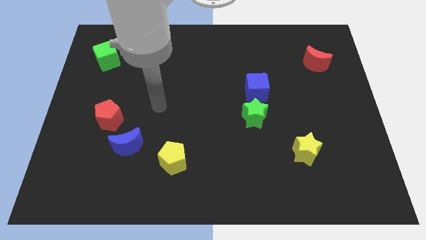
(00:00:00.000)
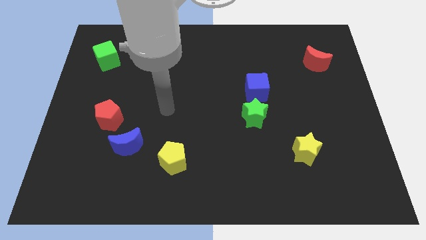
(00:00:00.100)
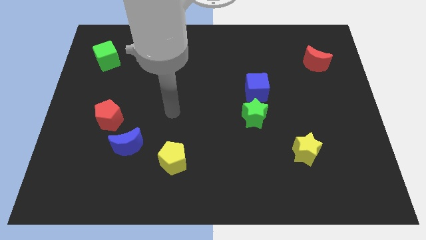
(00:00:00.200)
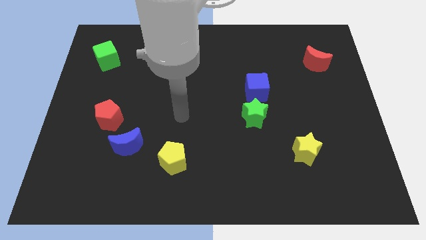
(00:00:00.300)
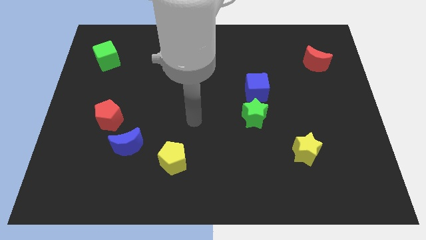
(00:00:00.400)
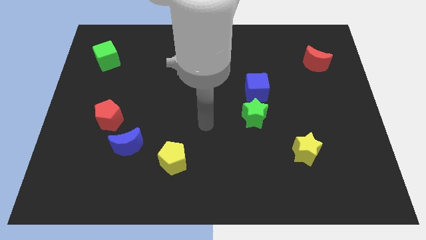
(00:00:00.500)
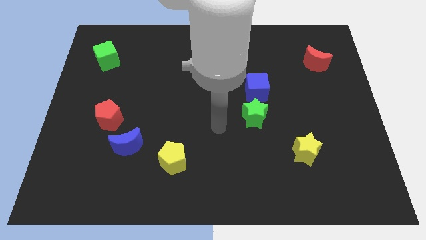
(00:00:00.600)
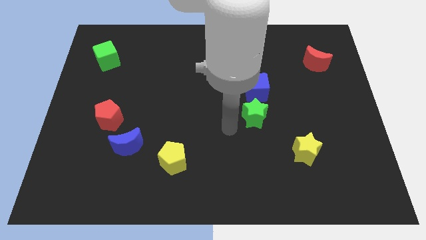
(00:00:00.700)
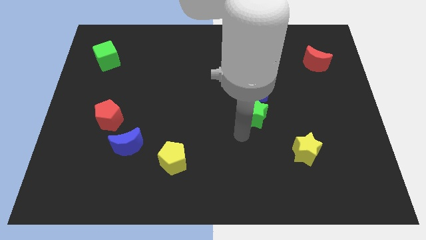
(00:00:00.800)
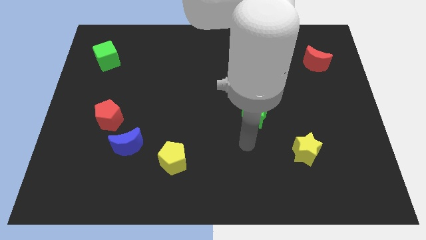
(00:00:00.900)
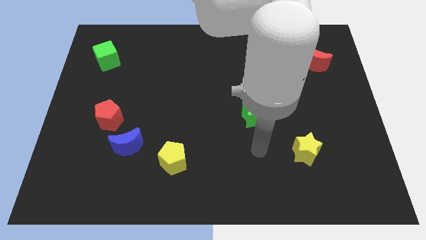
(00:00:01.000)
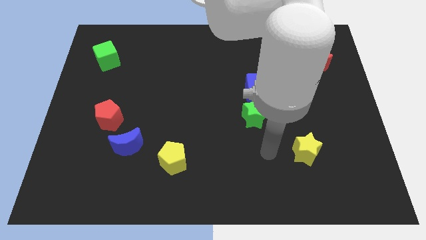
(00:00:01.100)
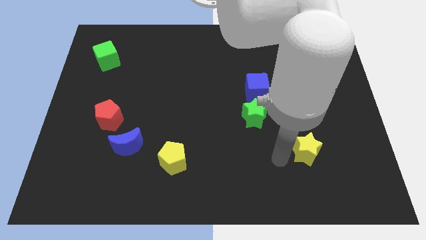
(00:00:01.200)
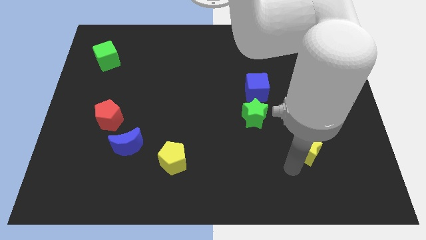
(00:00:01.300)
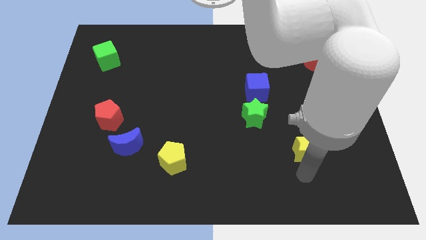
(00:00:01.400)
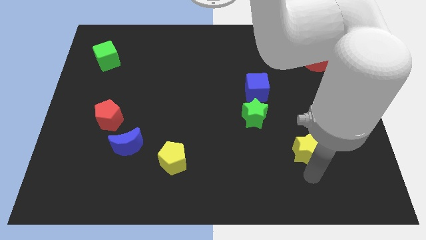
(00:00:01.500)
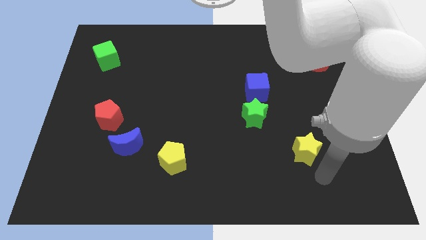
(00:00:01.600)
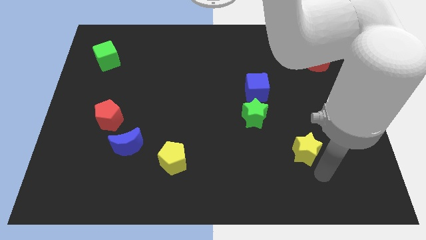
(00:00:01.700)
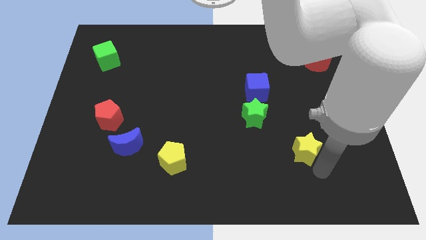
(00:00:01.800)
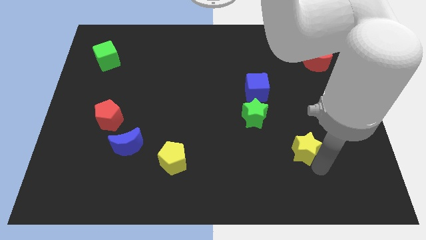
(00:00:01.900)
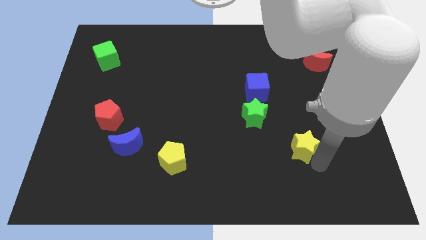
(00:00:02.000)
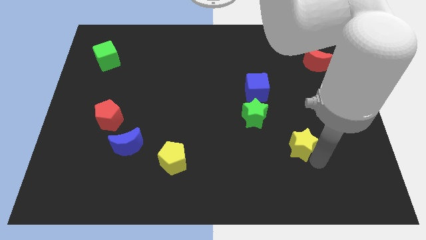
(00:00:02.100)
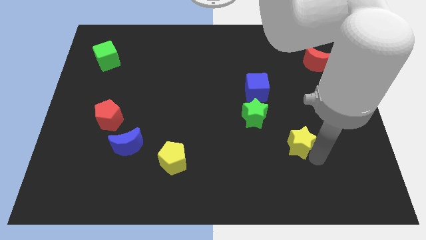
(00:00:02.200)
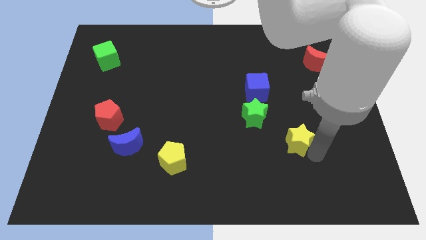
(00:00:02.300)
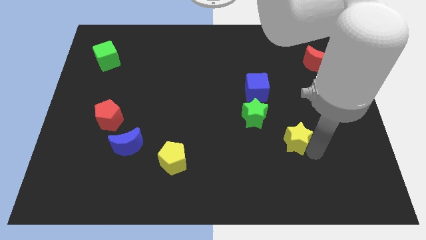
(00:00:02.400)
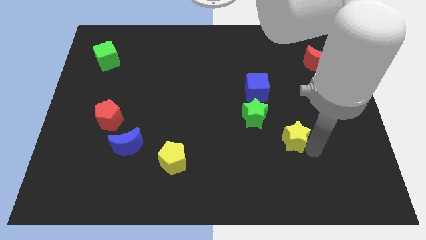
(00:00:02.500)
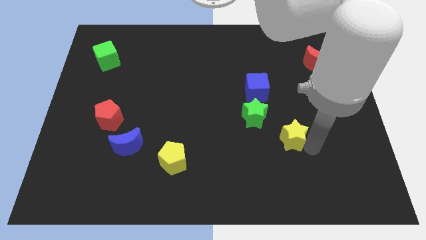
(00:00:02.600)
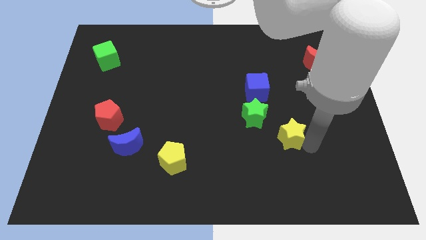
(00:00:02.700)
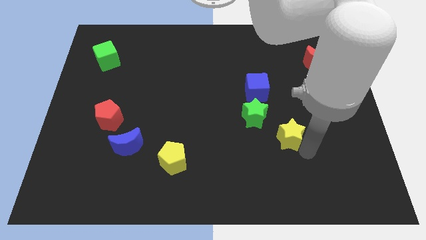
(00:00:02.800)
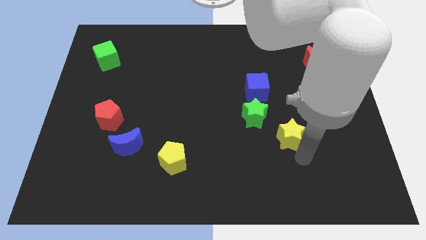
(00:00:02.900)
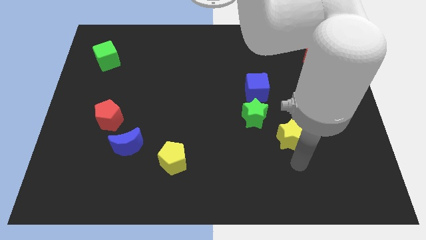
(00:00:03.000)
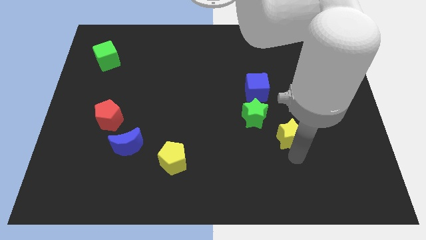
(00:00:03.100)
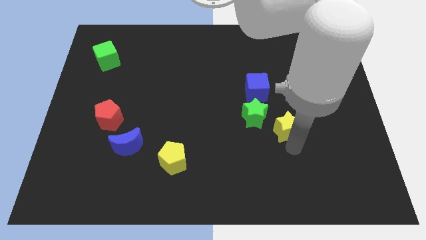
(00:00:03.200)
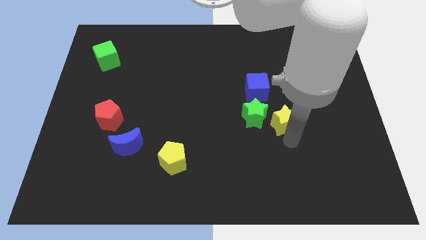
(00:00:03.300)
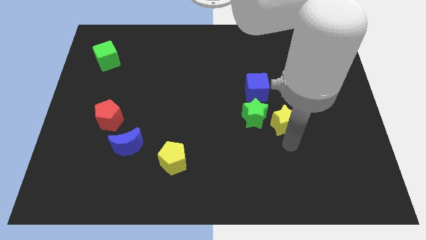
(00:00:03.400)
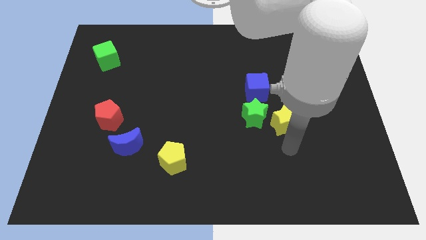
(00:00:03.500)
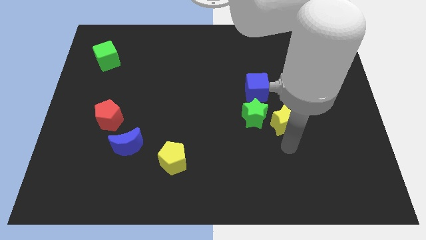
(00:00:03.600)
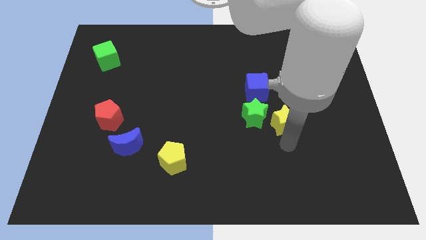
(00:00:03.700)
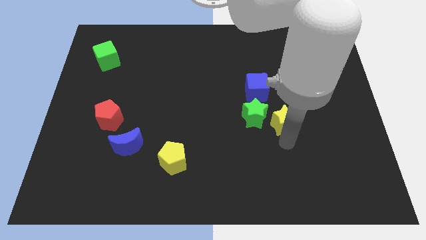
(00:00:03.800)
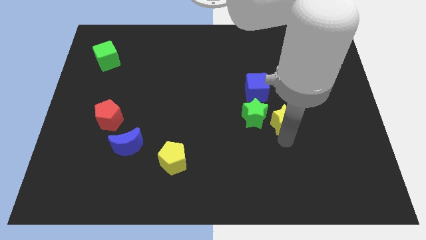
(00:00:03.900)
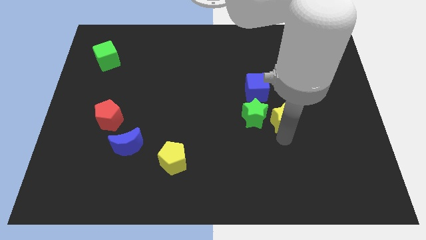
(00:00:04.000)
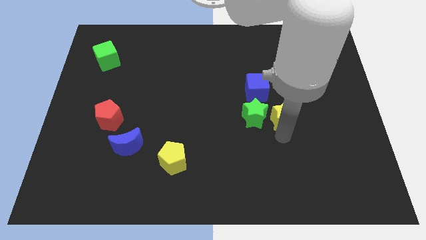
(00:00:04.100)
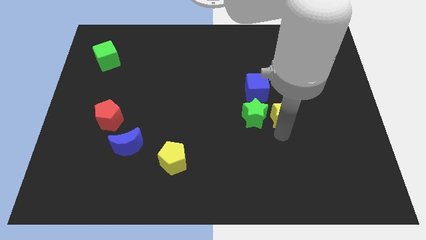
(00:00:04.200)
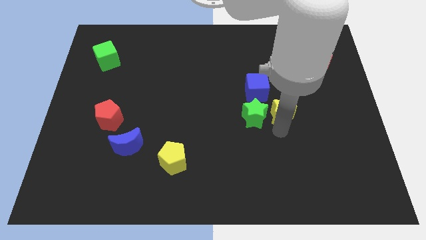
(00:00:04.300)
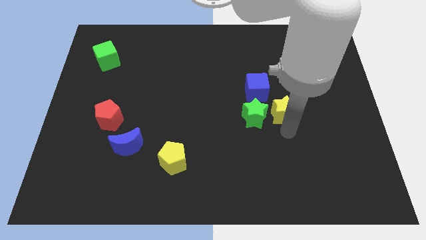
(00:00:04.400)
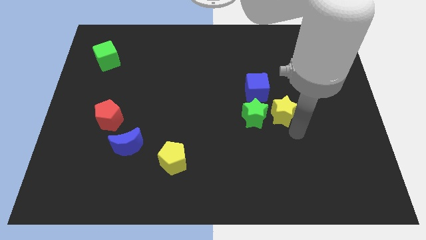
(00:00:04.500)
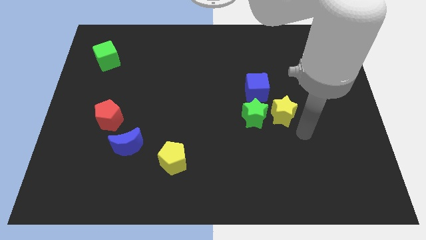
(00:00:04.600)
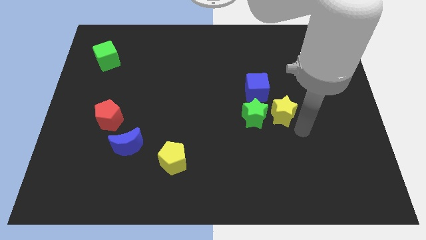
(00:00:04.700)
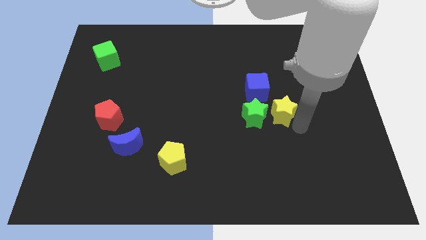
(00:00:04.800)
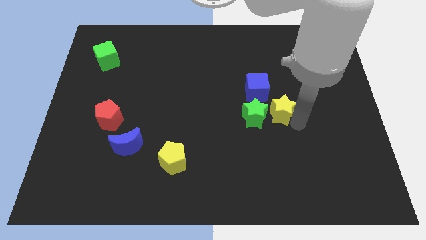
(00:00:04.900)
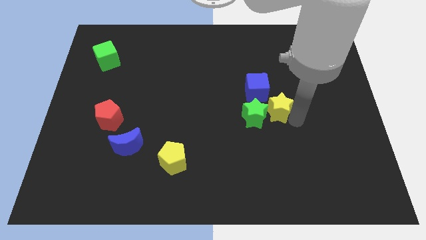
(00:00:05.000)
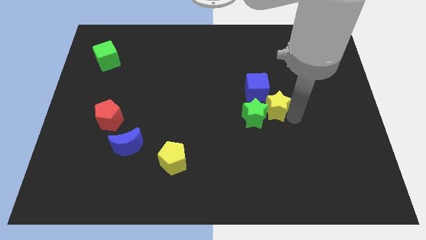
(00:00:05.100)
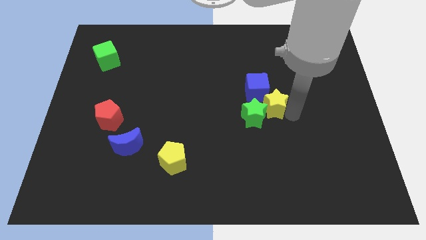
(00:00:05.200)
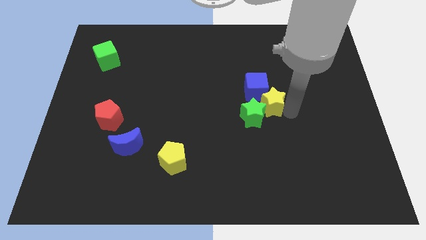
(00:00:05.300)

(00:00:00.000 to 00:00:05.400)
push the yellow star towards the blue cube

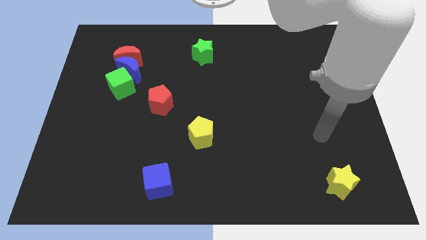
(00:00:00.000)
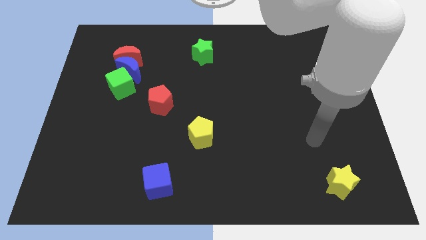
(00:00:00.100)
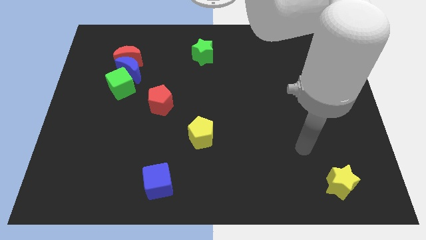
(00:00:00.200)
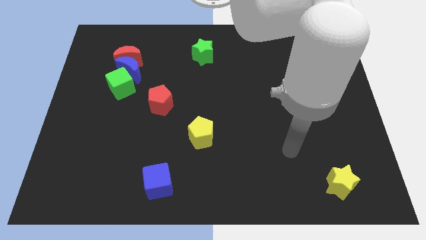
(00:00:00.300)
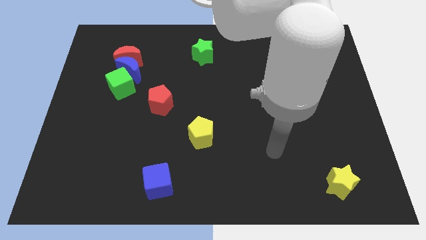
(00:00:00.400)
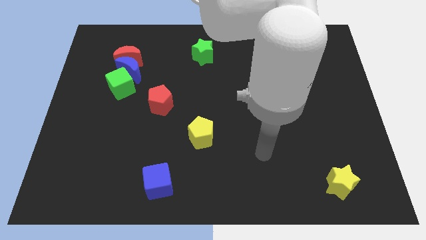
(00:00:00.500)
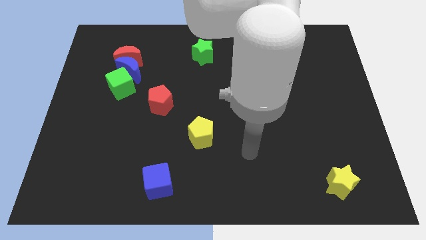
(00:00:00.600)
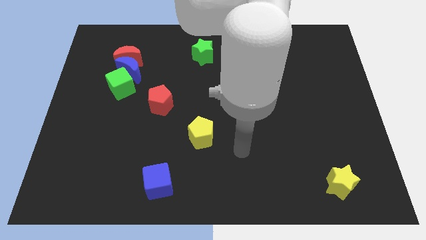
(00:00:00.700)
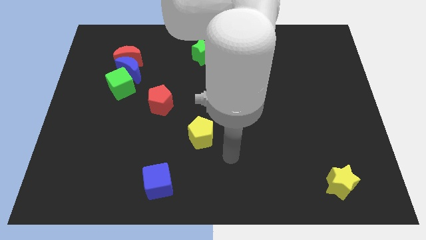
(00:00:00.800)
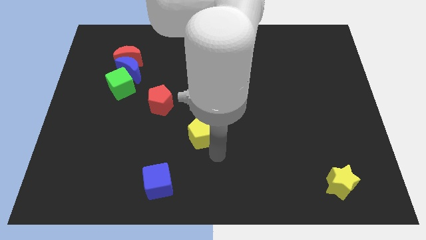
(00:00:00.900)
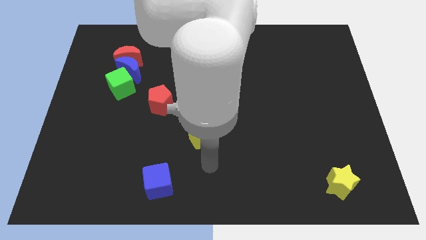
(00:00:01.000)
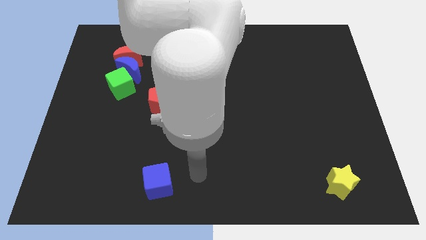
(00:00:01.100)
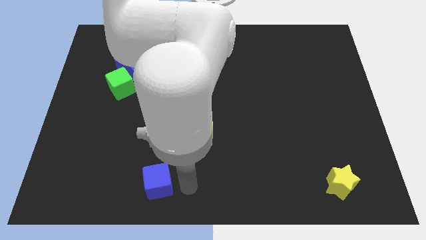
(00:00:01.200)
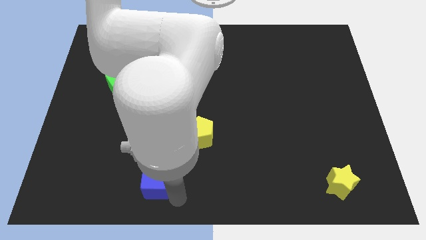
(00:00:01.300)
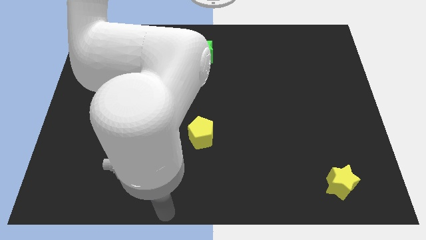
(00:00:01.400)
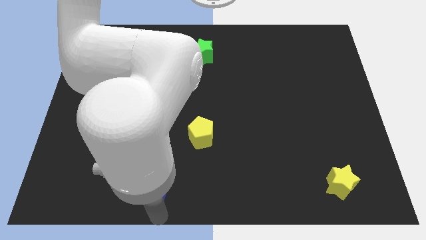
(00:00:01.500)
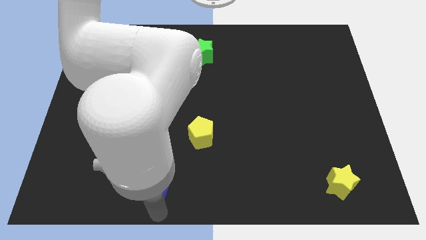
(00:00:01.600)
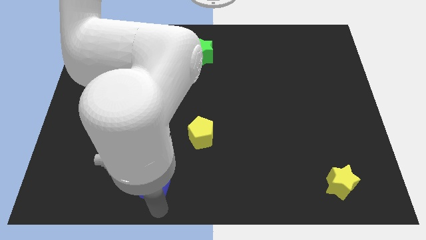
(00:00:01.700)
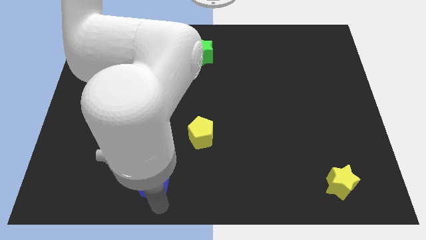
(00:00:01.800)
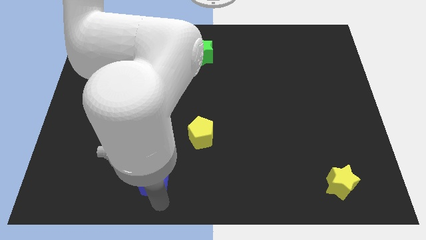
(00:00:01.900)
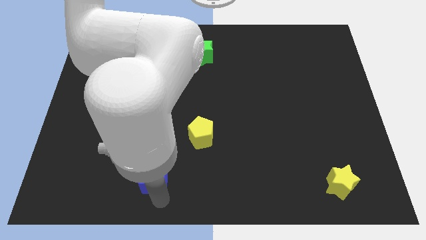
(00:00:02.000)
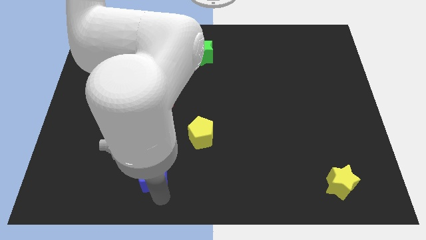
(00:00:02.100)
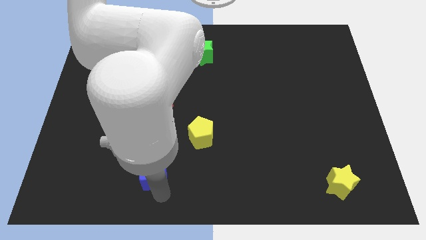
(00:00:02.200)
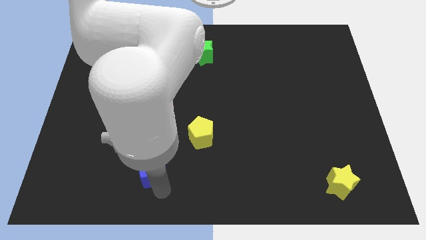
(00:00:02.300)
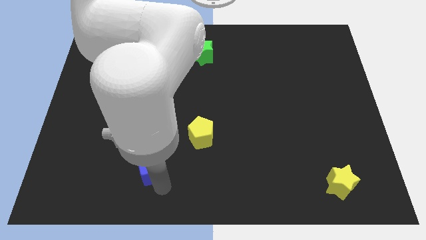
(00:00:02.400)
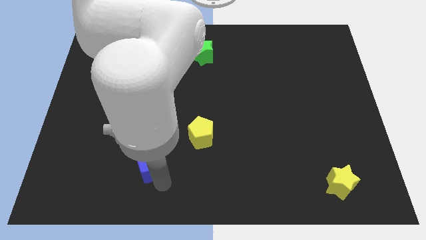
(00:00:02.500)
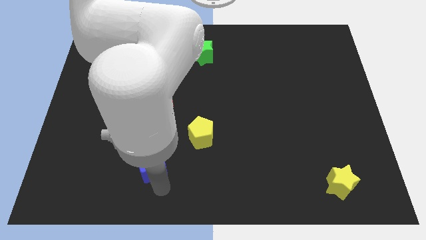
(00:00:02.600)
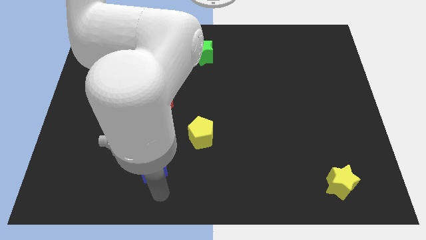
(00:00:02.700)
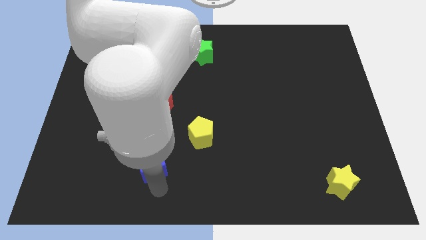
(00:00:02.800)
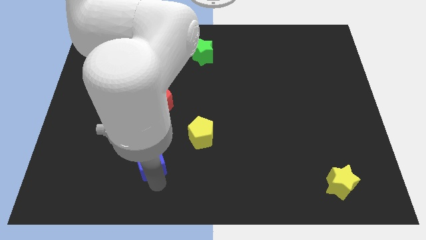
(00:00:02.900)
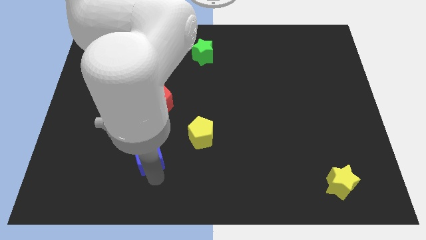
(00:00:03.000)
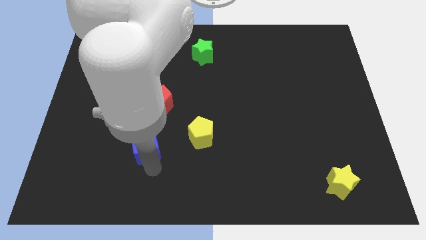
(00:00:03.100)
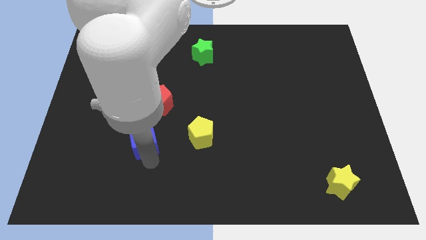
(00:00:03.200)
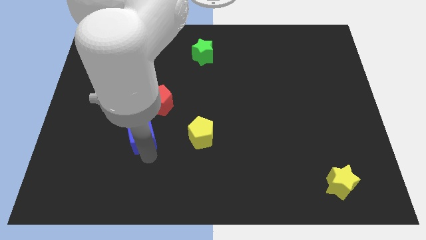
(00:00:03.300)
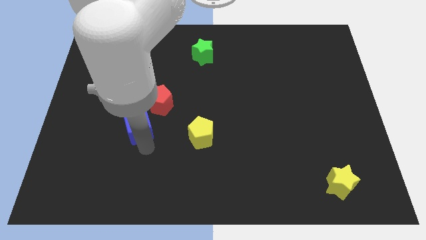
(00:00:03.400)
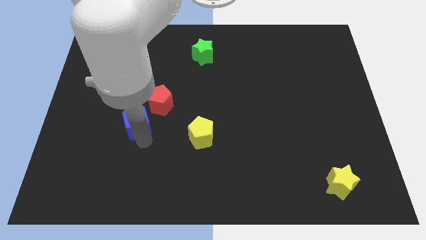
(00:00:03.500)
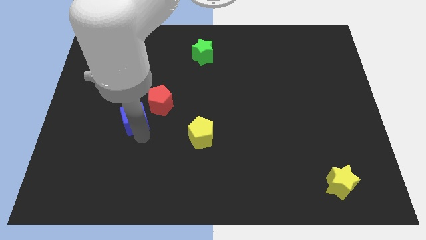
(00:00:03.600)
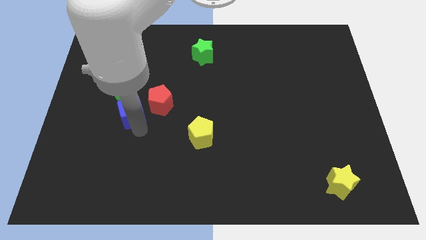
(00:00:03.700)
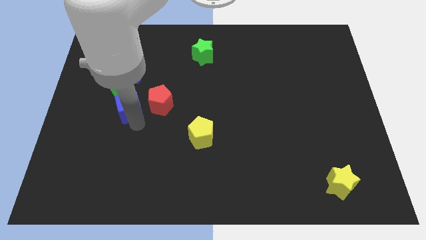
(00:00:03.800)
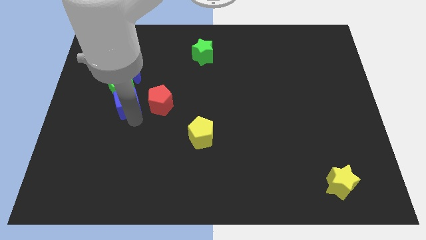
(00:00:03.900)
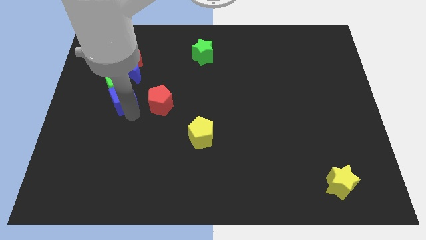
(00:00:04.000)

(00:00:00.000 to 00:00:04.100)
put the blue cube towards the green cube
